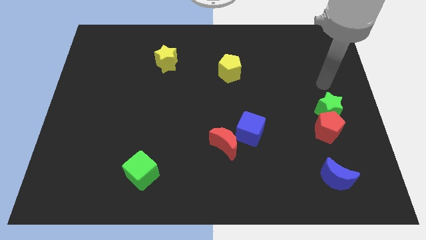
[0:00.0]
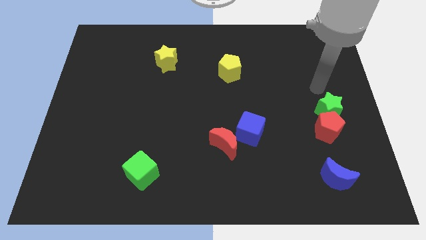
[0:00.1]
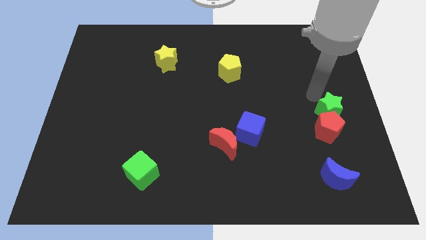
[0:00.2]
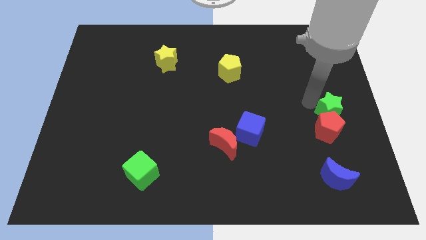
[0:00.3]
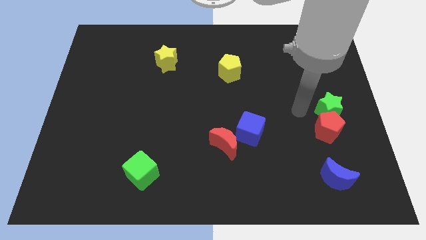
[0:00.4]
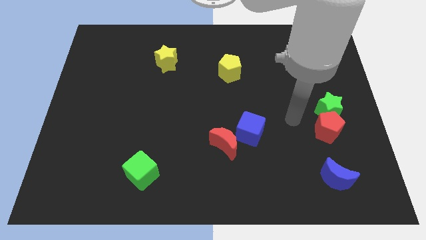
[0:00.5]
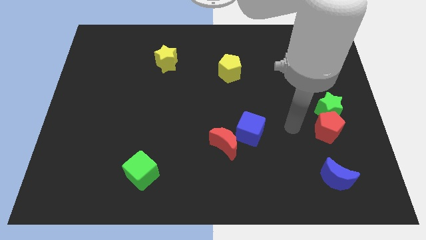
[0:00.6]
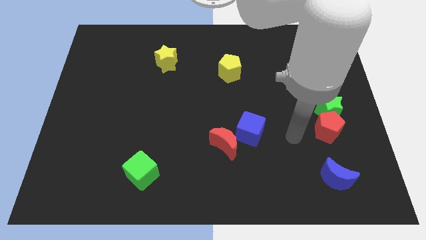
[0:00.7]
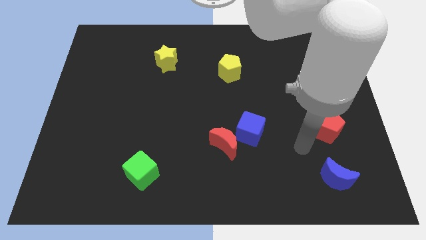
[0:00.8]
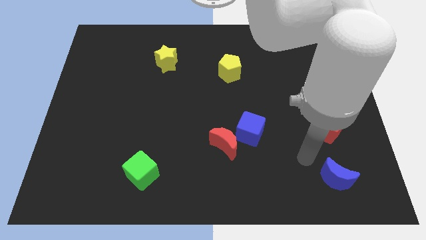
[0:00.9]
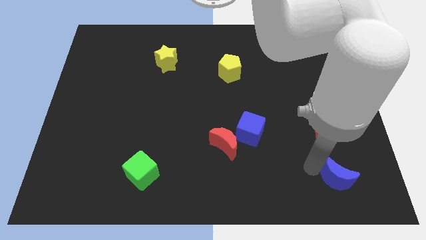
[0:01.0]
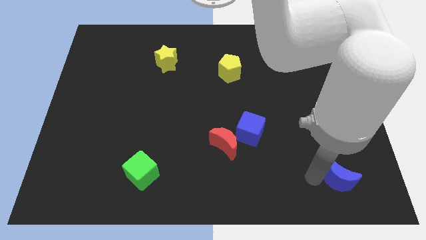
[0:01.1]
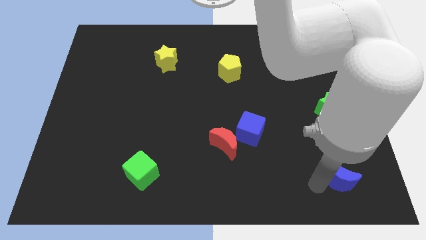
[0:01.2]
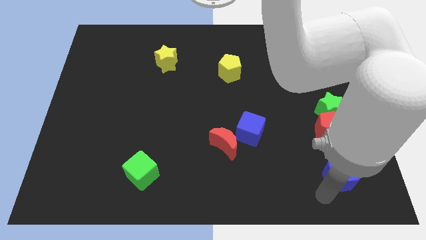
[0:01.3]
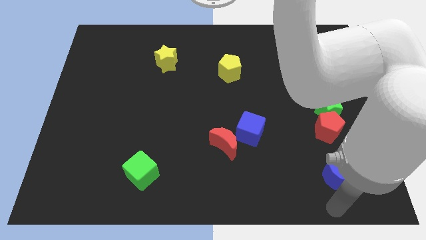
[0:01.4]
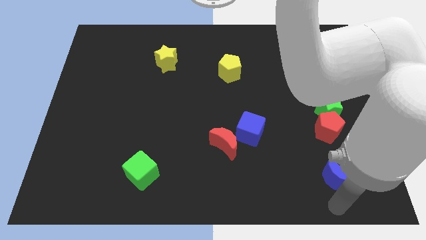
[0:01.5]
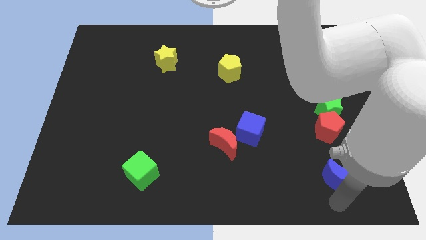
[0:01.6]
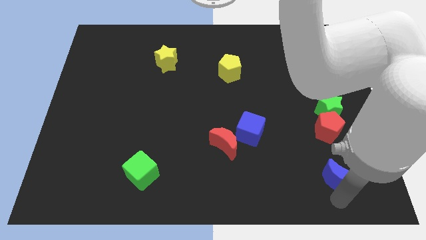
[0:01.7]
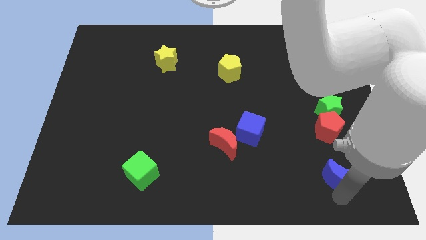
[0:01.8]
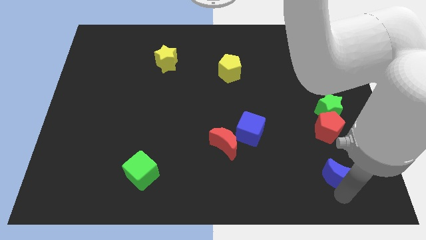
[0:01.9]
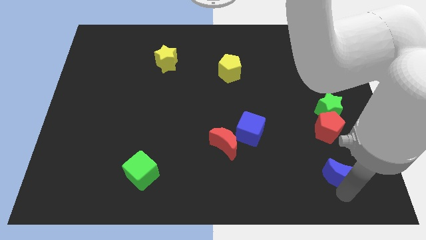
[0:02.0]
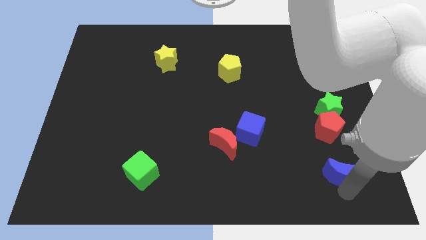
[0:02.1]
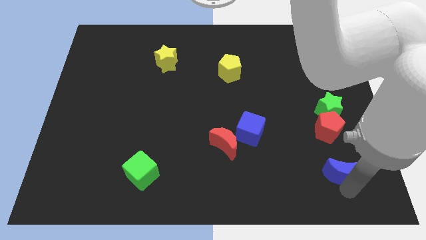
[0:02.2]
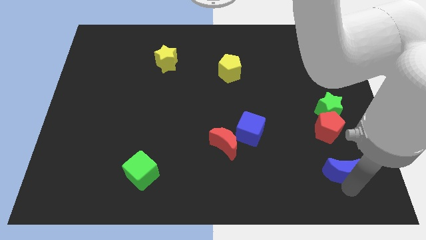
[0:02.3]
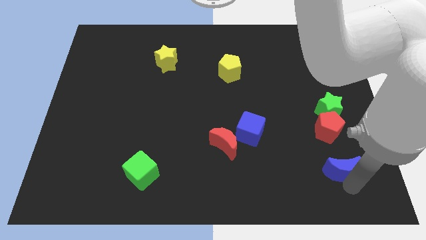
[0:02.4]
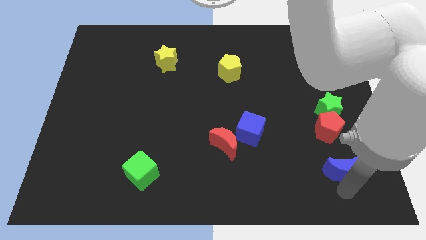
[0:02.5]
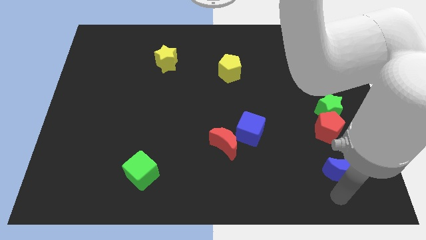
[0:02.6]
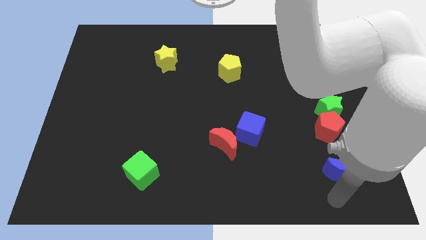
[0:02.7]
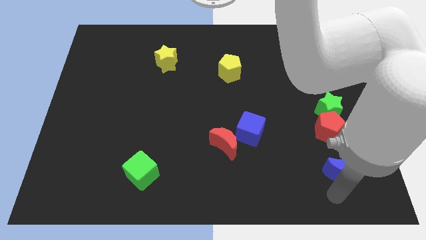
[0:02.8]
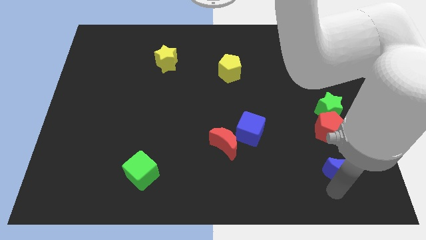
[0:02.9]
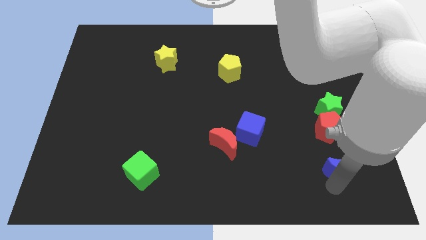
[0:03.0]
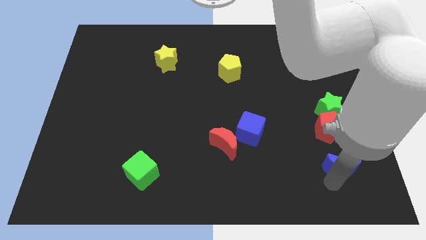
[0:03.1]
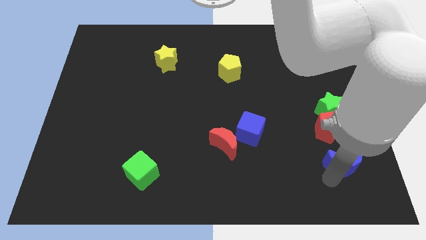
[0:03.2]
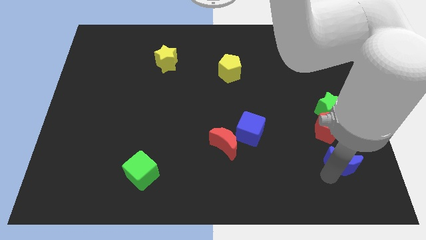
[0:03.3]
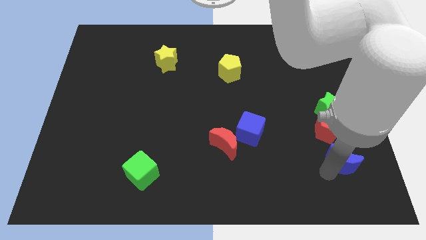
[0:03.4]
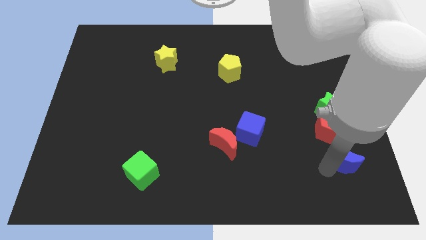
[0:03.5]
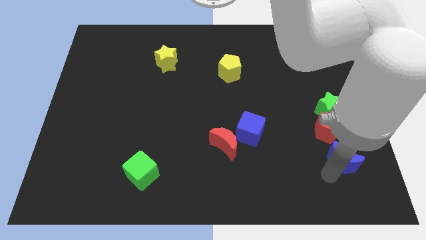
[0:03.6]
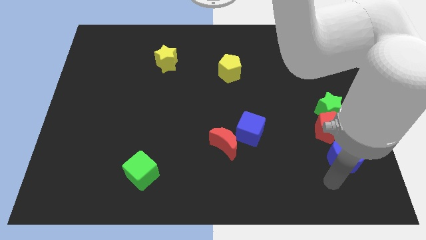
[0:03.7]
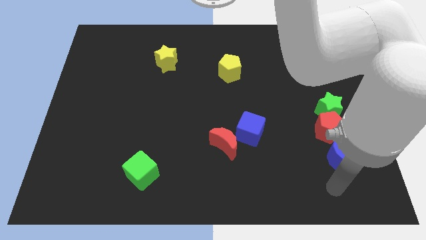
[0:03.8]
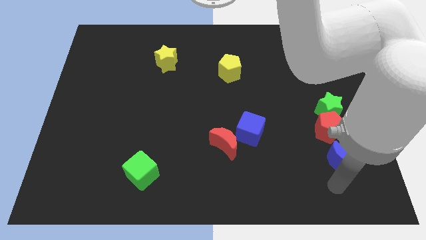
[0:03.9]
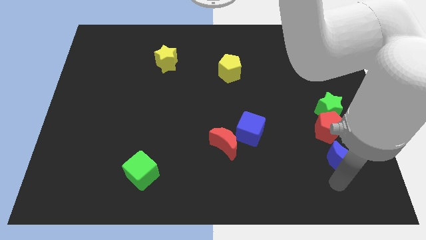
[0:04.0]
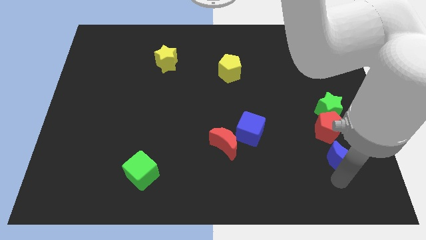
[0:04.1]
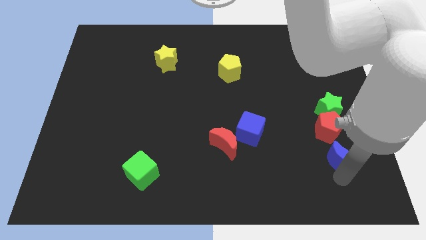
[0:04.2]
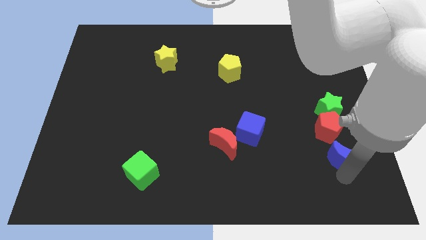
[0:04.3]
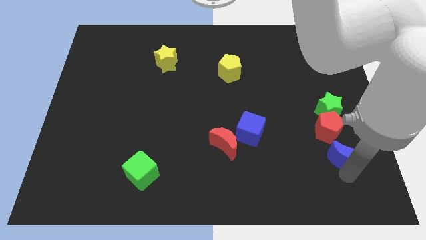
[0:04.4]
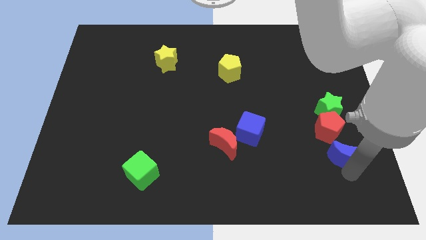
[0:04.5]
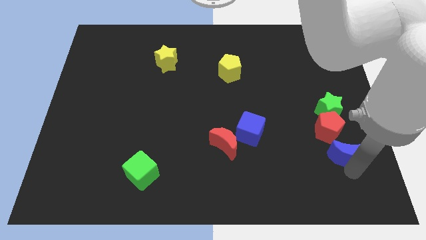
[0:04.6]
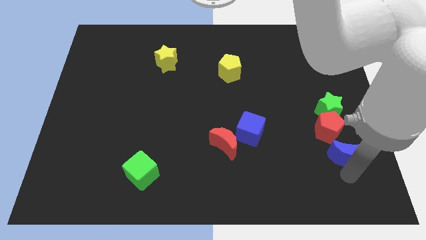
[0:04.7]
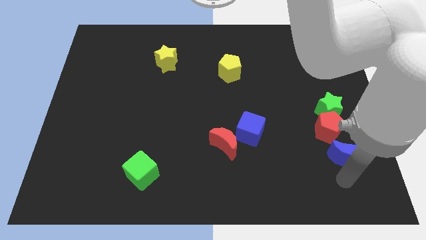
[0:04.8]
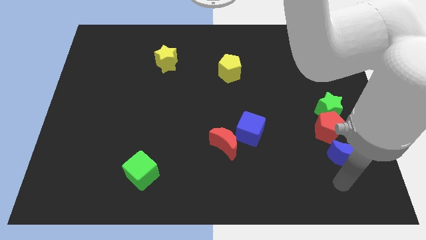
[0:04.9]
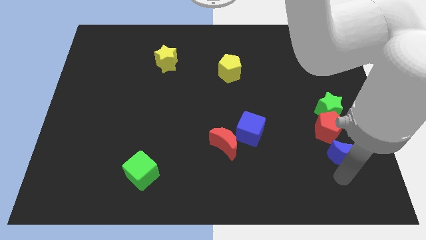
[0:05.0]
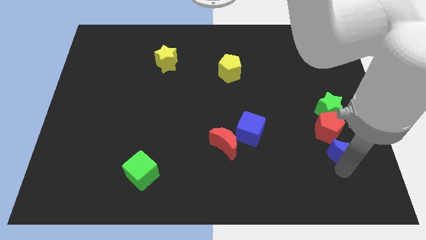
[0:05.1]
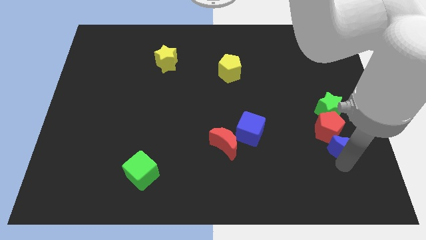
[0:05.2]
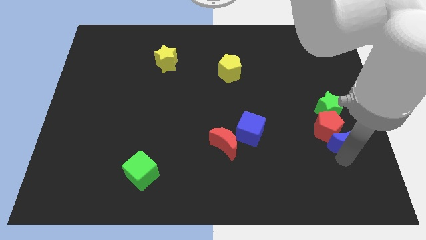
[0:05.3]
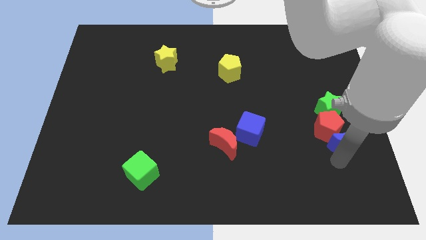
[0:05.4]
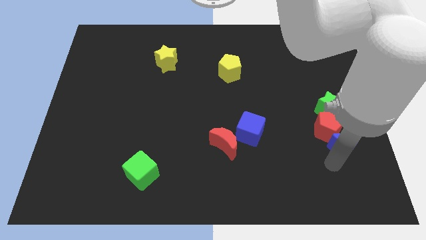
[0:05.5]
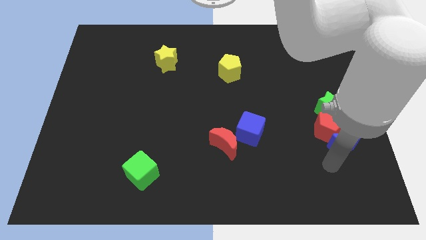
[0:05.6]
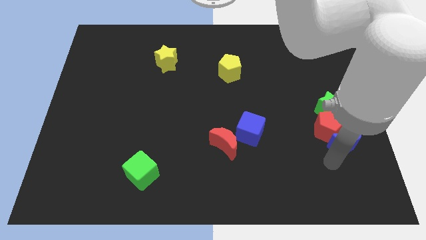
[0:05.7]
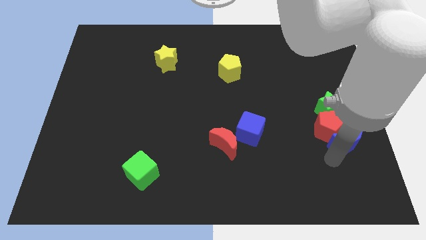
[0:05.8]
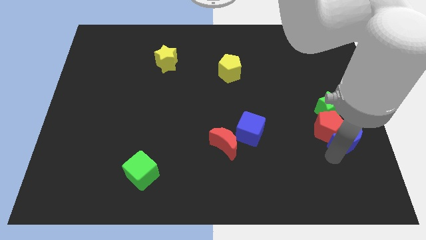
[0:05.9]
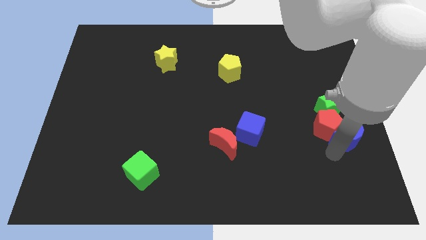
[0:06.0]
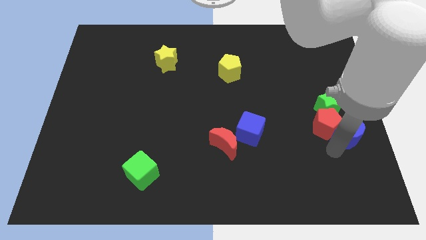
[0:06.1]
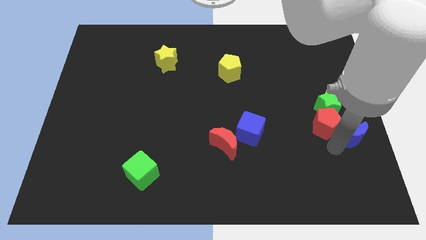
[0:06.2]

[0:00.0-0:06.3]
push the blue moon to the center right
